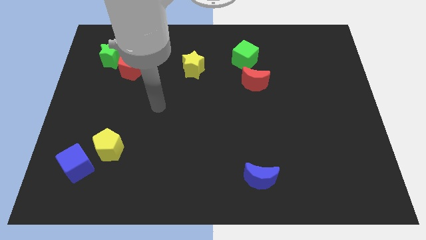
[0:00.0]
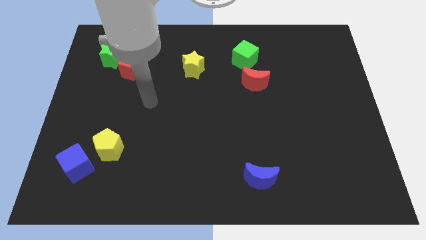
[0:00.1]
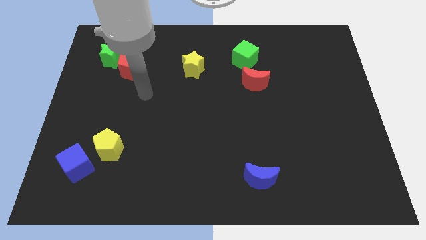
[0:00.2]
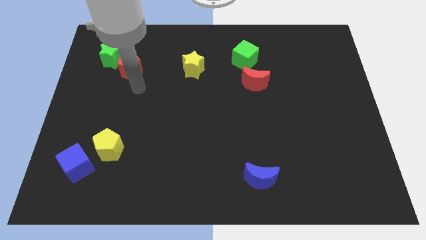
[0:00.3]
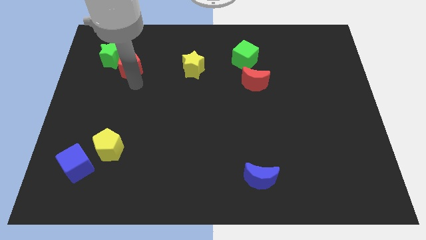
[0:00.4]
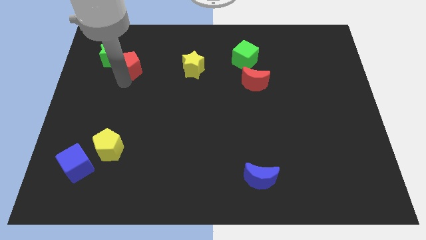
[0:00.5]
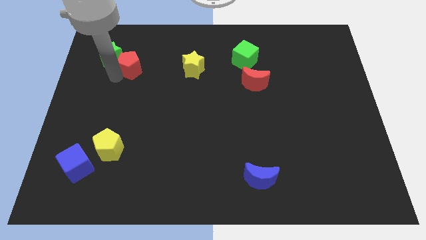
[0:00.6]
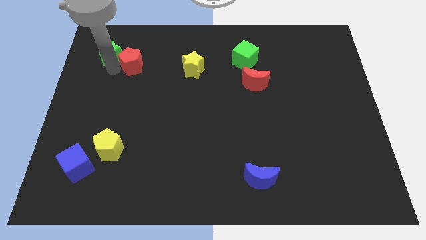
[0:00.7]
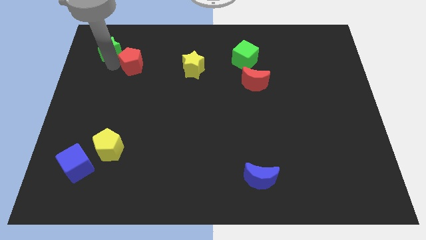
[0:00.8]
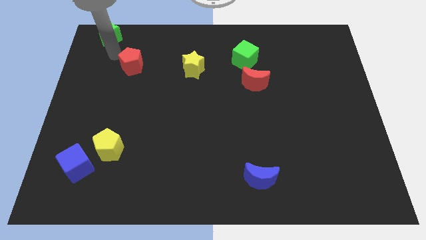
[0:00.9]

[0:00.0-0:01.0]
pull the red pentagon apart from the green star

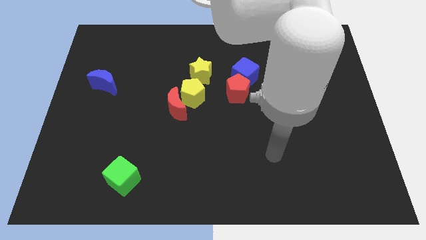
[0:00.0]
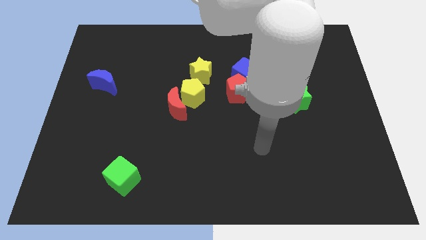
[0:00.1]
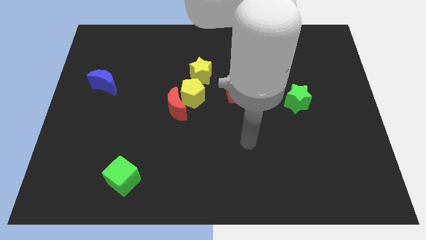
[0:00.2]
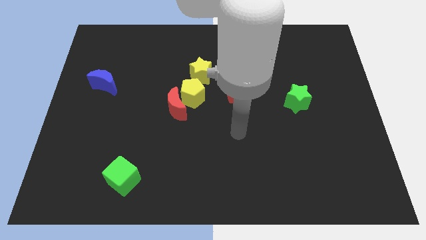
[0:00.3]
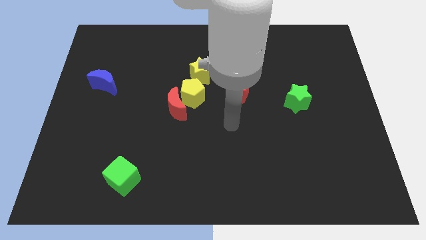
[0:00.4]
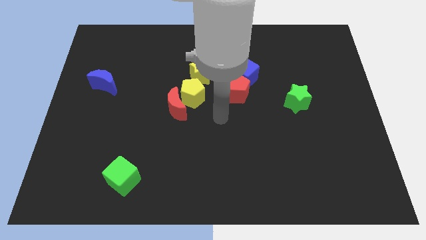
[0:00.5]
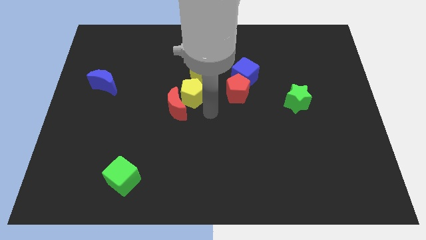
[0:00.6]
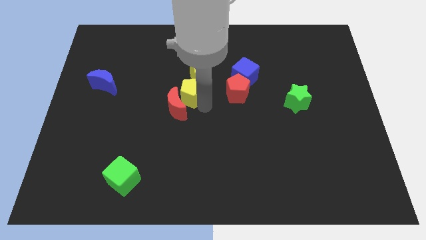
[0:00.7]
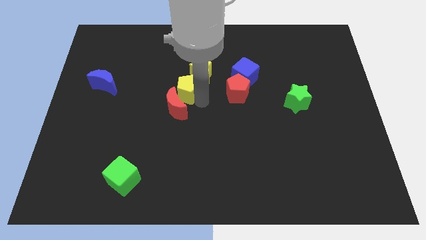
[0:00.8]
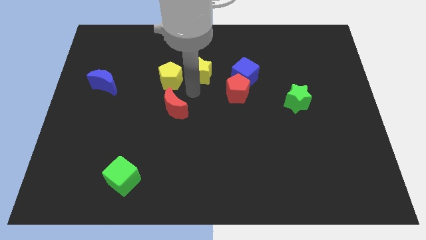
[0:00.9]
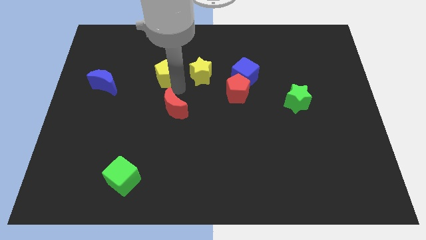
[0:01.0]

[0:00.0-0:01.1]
move the red moon away from the yellow pentagon

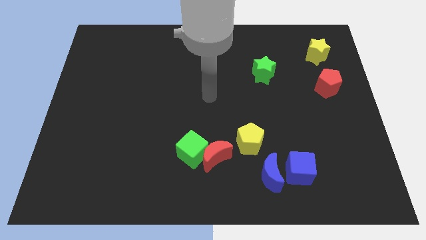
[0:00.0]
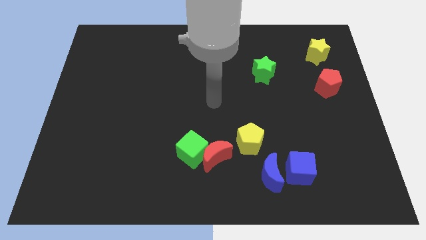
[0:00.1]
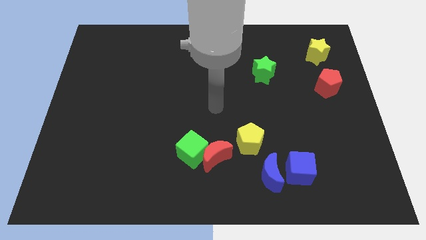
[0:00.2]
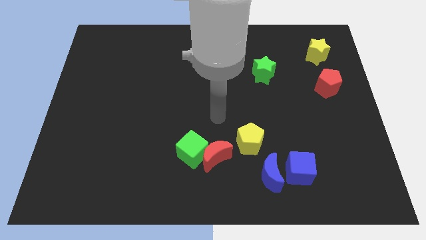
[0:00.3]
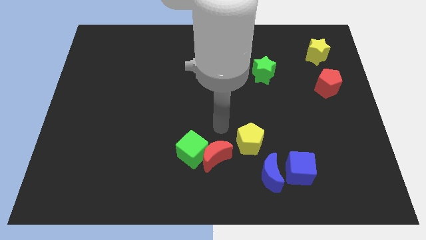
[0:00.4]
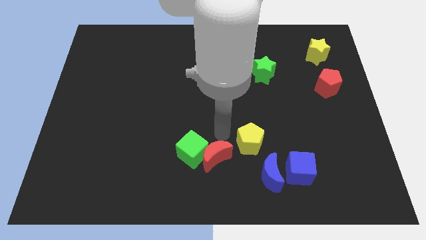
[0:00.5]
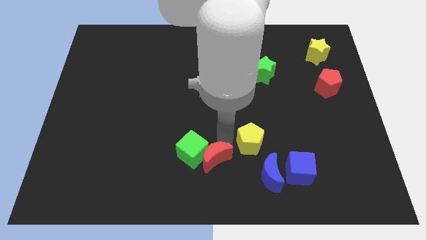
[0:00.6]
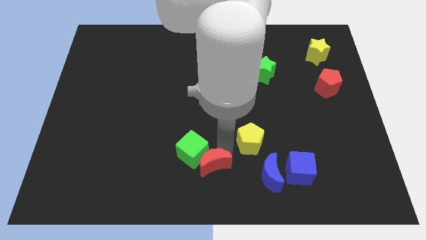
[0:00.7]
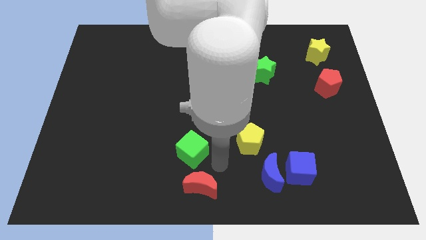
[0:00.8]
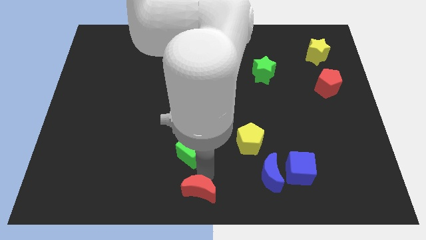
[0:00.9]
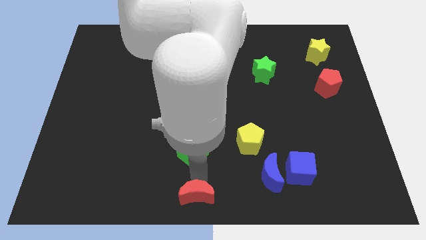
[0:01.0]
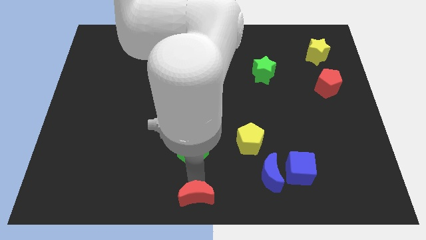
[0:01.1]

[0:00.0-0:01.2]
separate the green cube from the red moon

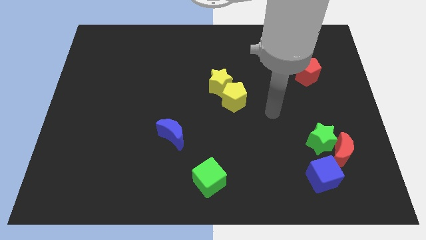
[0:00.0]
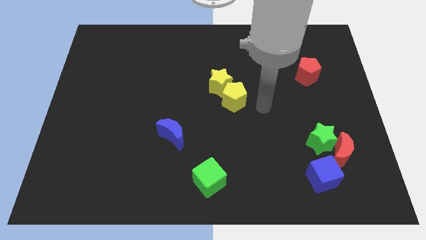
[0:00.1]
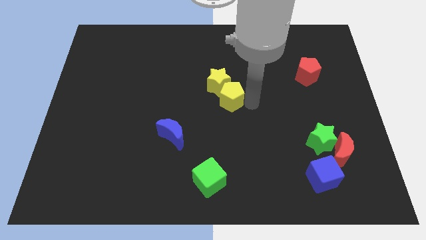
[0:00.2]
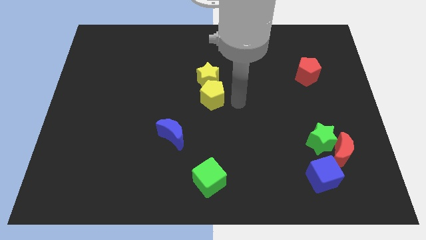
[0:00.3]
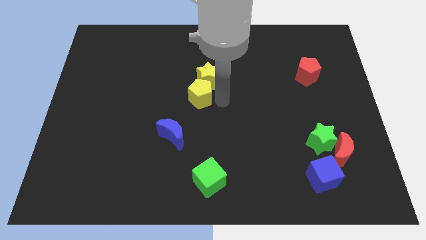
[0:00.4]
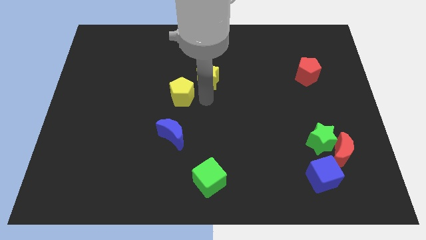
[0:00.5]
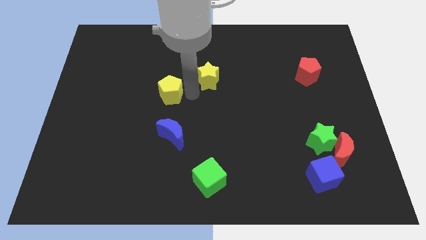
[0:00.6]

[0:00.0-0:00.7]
move the yellow star away from the yellow pentagon

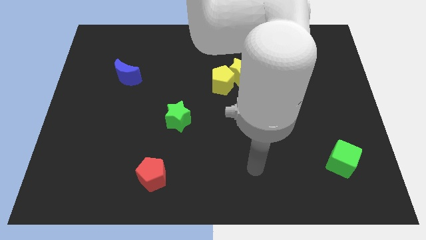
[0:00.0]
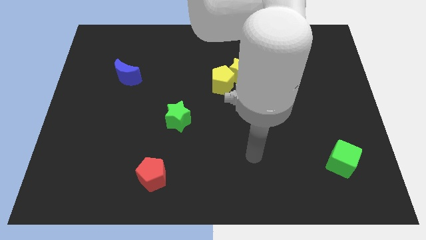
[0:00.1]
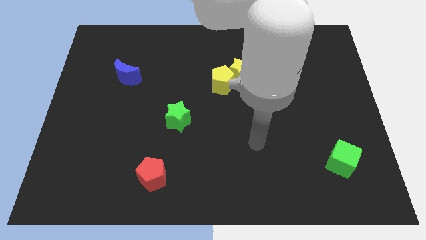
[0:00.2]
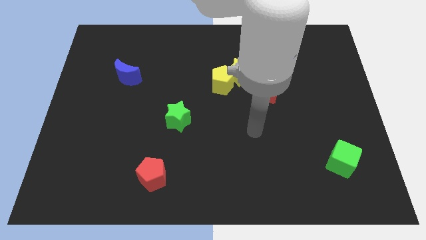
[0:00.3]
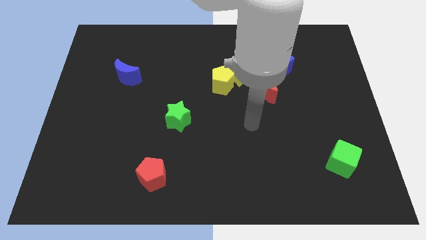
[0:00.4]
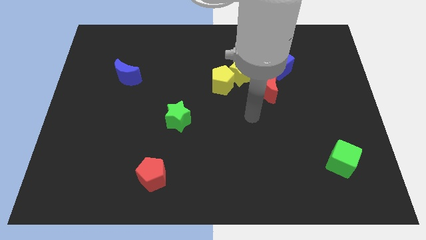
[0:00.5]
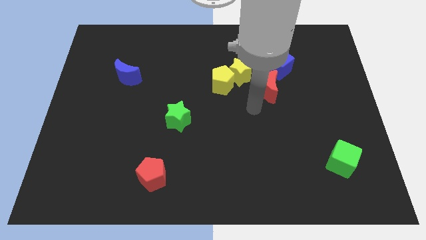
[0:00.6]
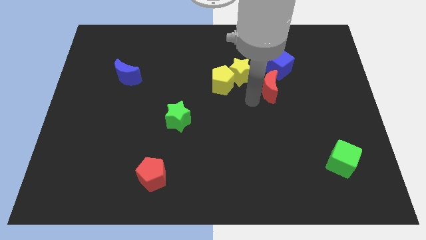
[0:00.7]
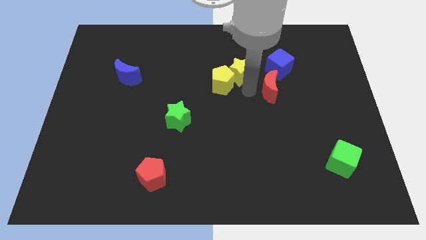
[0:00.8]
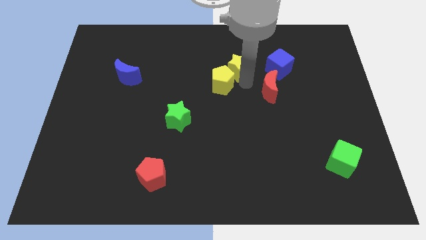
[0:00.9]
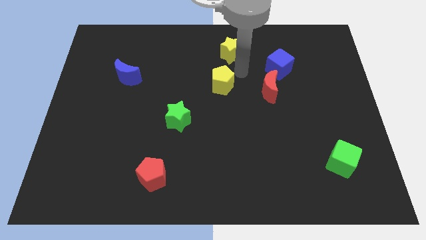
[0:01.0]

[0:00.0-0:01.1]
move the yellow pentagon away from the yellow star

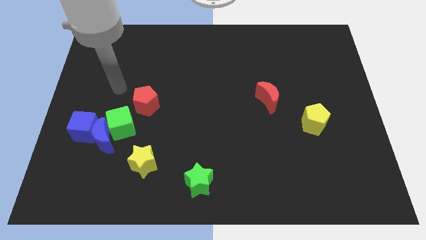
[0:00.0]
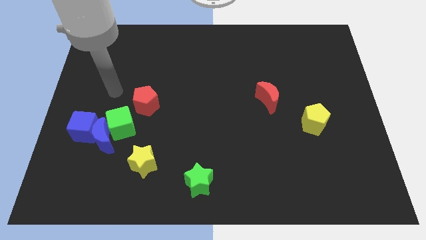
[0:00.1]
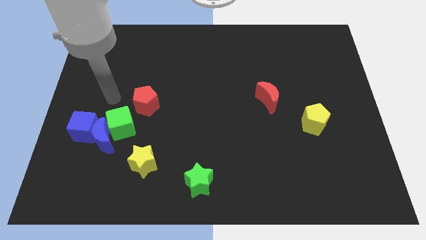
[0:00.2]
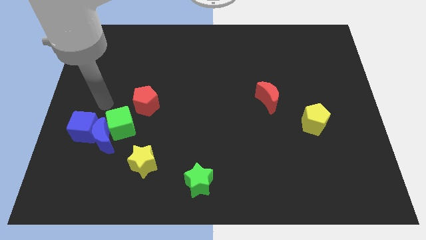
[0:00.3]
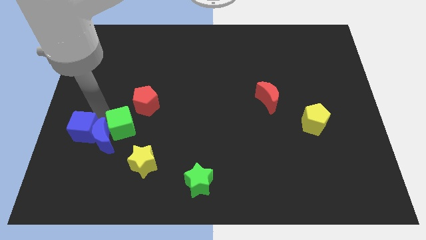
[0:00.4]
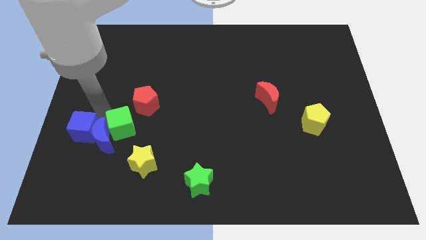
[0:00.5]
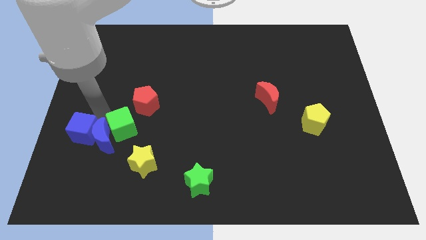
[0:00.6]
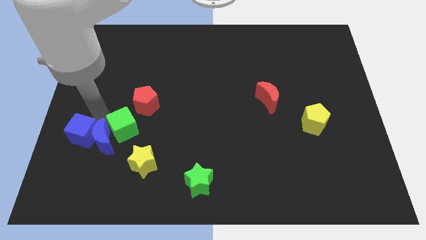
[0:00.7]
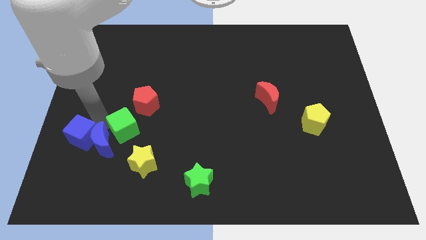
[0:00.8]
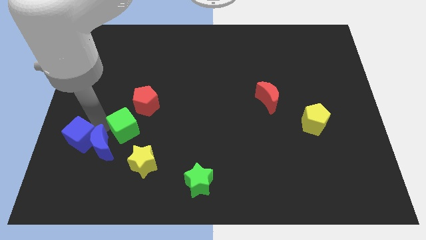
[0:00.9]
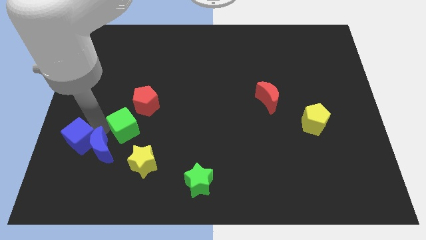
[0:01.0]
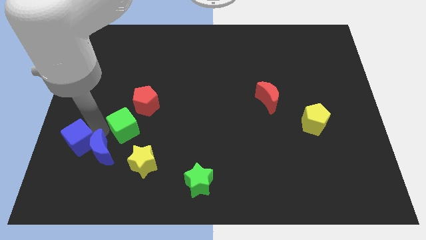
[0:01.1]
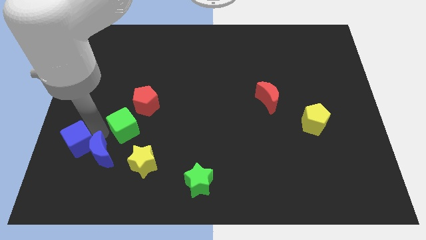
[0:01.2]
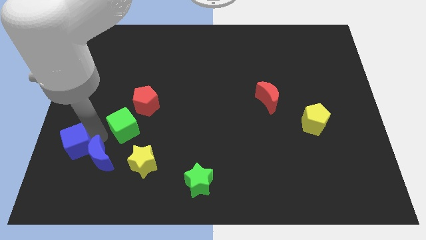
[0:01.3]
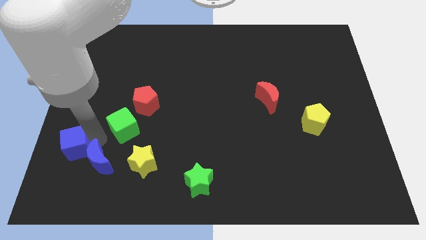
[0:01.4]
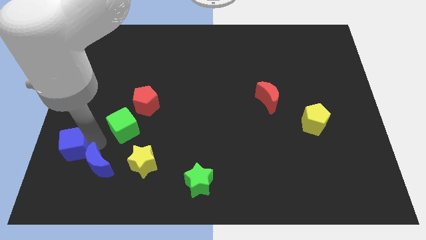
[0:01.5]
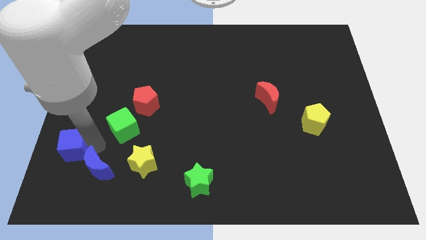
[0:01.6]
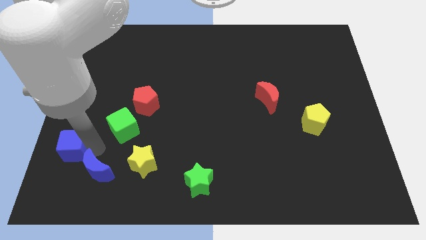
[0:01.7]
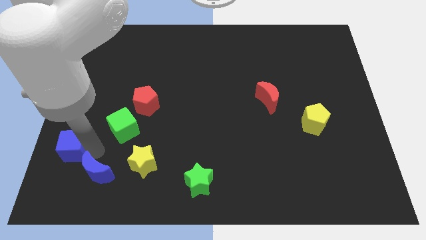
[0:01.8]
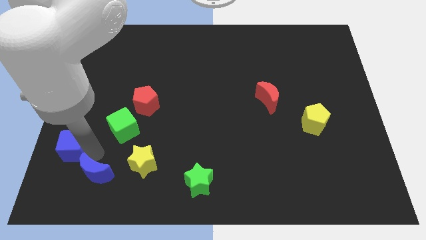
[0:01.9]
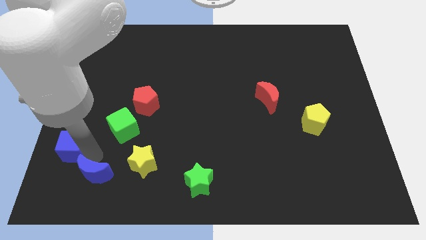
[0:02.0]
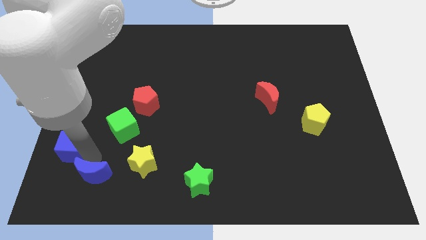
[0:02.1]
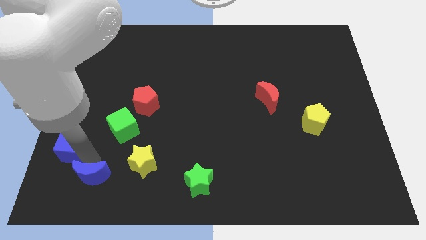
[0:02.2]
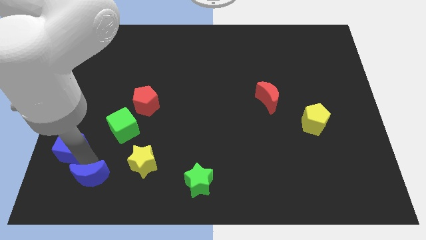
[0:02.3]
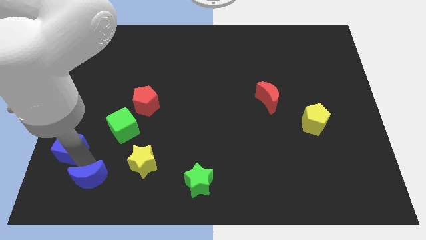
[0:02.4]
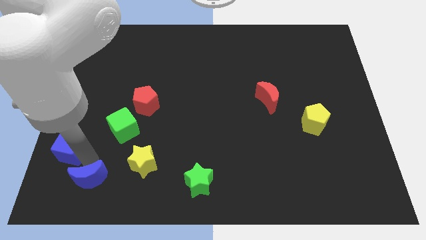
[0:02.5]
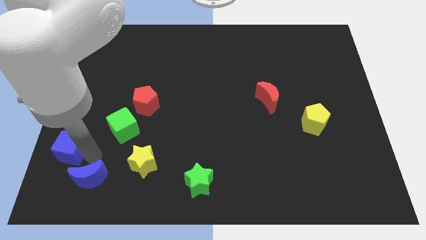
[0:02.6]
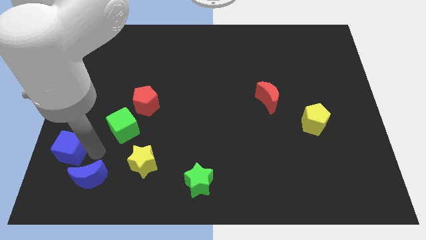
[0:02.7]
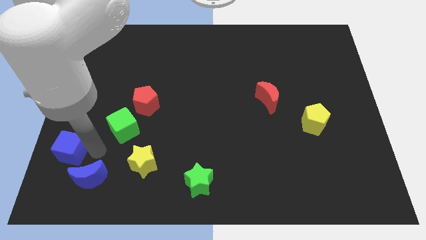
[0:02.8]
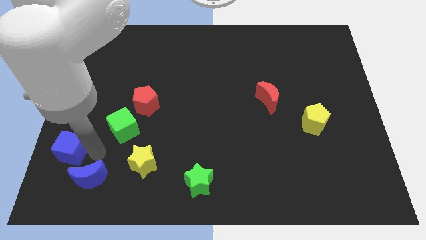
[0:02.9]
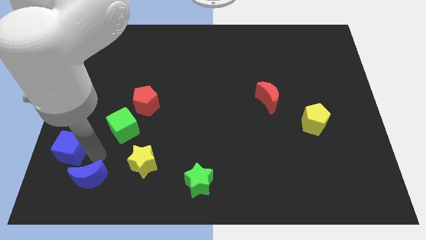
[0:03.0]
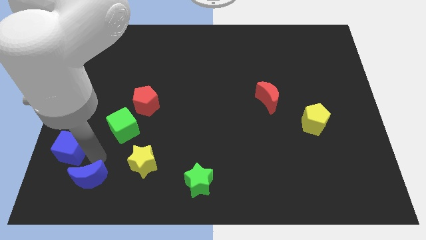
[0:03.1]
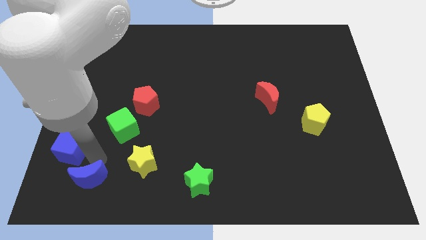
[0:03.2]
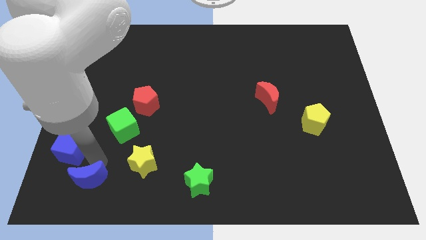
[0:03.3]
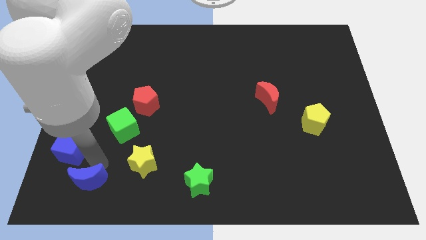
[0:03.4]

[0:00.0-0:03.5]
move the blue moon away from the green cube and blue cube

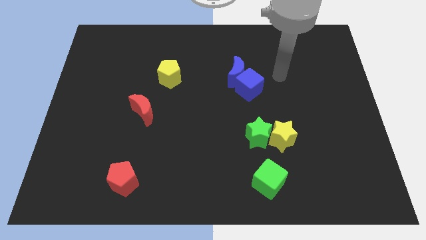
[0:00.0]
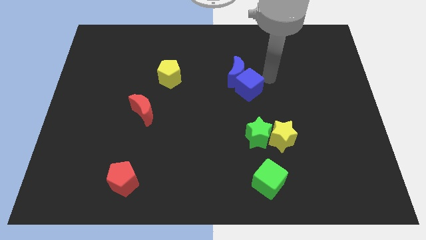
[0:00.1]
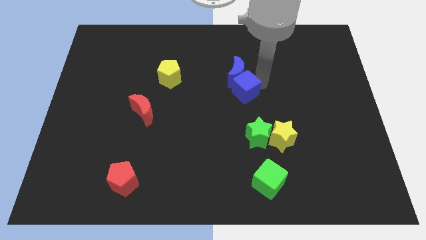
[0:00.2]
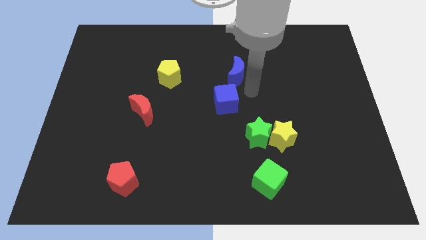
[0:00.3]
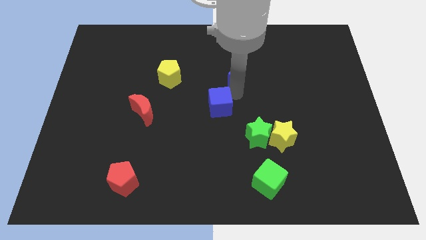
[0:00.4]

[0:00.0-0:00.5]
pull the blue moon apart from the blue cube

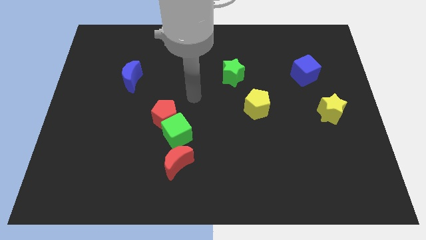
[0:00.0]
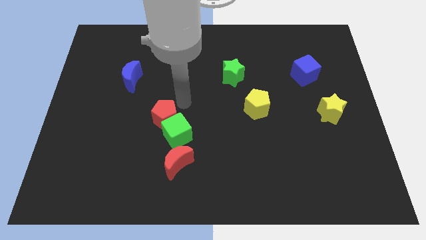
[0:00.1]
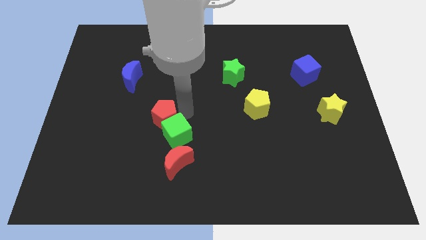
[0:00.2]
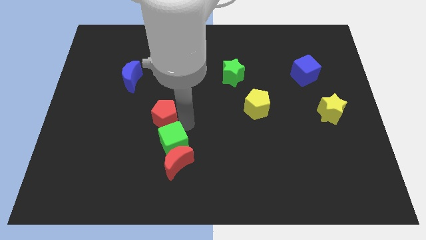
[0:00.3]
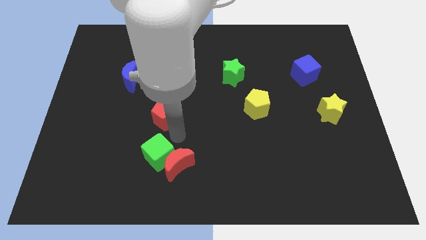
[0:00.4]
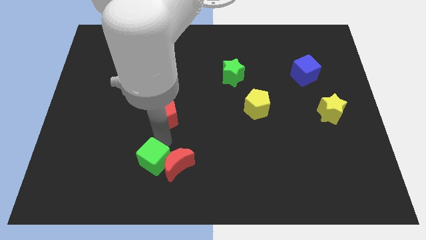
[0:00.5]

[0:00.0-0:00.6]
move the red pentagon away from the green cube
